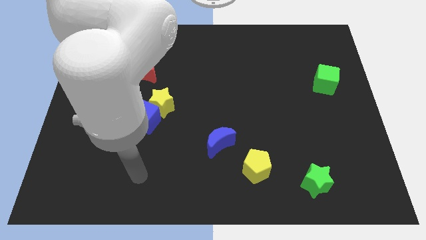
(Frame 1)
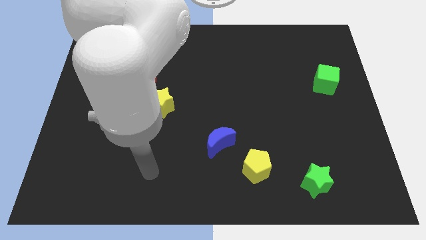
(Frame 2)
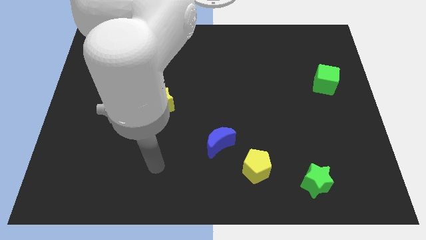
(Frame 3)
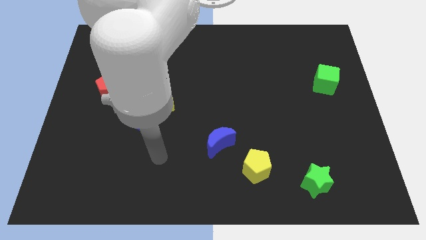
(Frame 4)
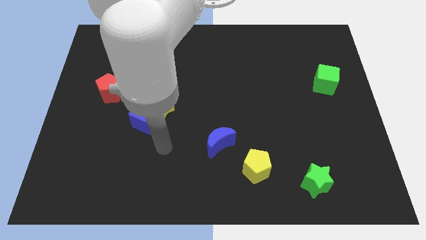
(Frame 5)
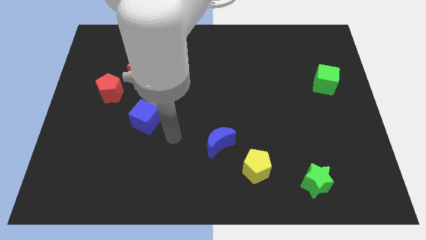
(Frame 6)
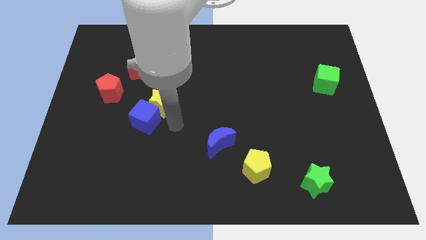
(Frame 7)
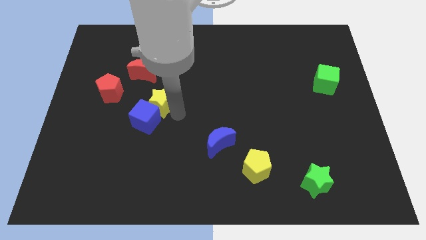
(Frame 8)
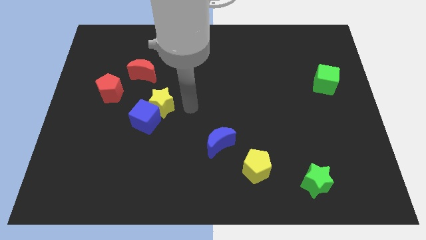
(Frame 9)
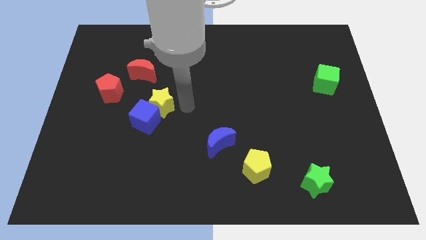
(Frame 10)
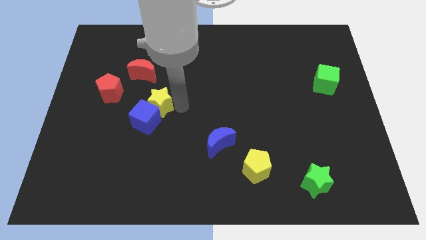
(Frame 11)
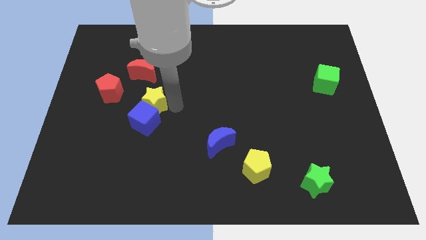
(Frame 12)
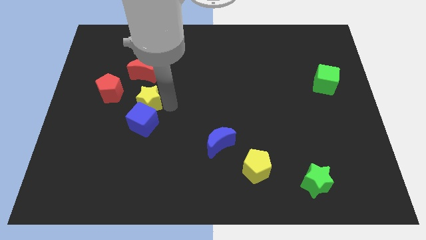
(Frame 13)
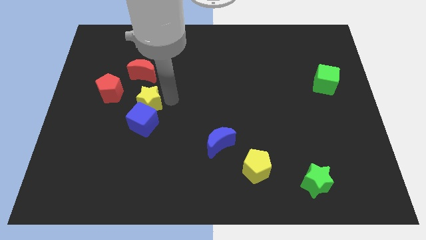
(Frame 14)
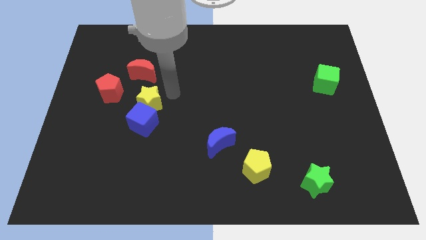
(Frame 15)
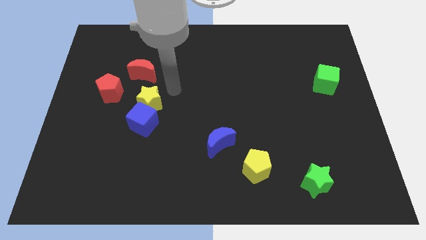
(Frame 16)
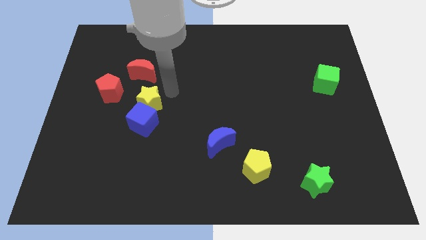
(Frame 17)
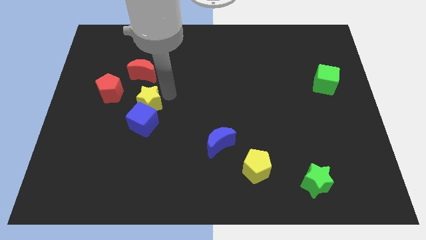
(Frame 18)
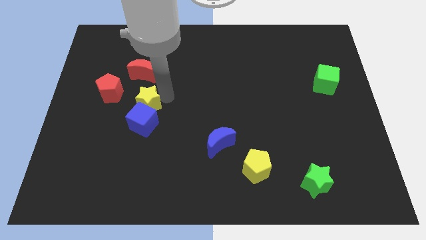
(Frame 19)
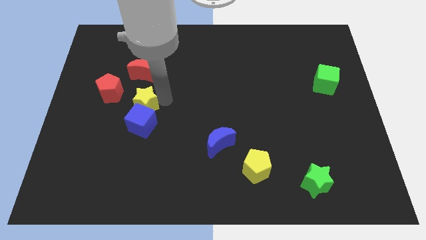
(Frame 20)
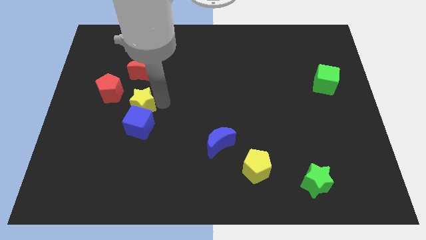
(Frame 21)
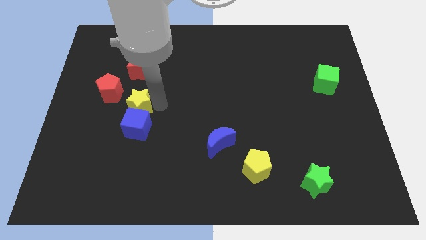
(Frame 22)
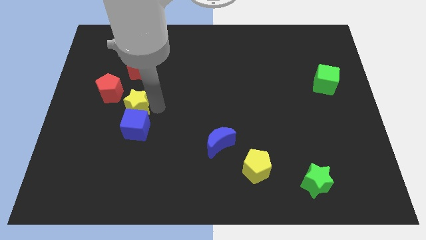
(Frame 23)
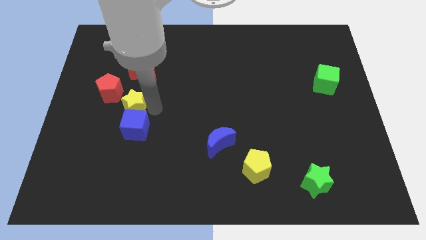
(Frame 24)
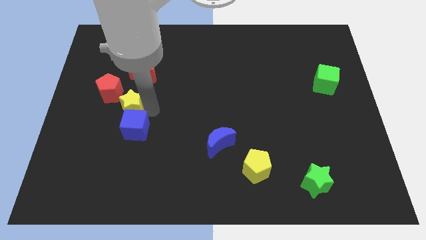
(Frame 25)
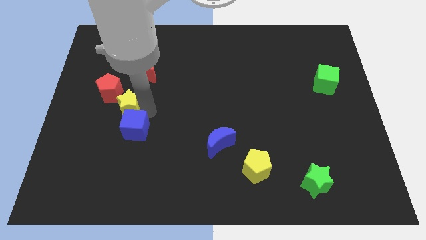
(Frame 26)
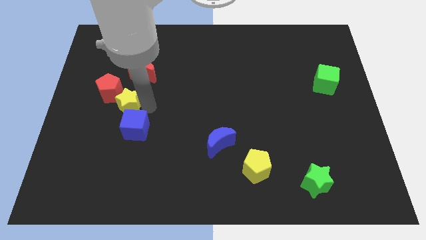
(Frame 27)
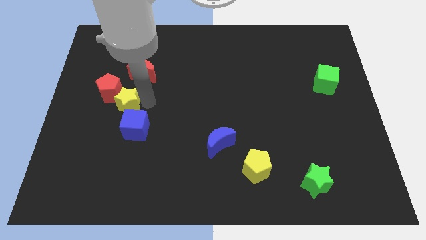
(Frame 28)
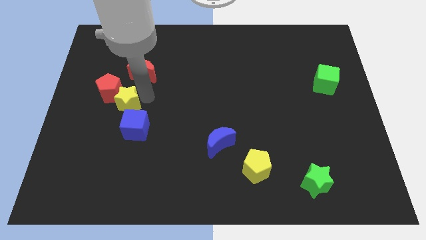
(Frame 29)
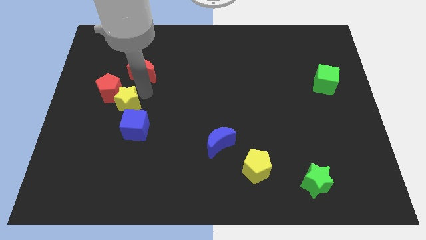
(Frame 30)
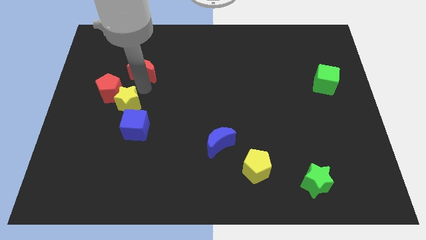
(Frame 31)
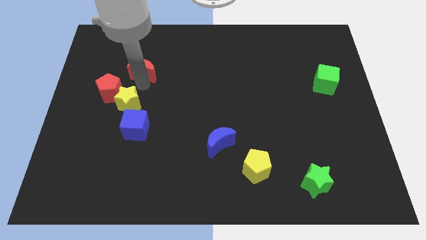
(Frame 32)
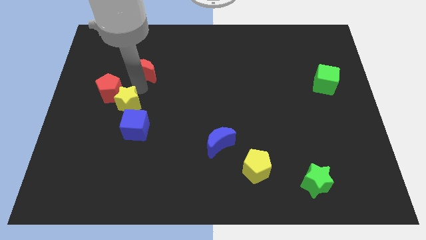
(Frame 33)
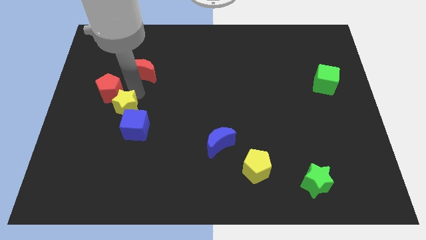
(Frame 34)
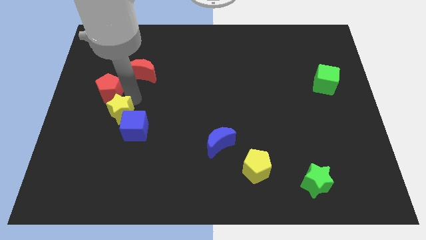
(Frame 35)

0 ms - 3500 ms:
move the yellow star slightly downwards and to the left

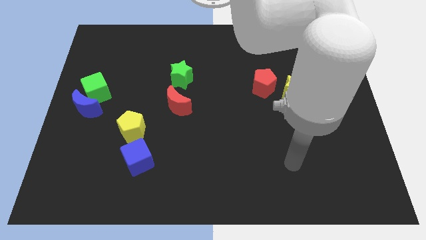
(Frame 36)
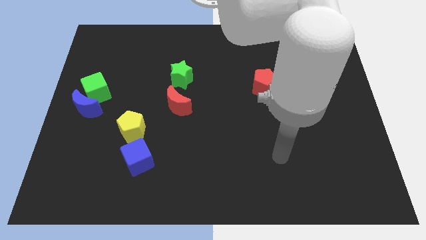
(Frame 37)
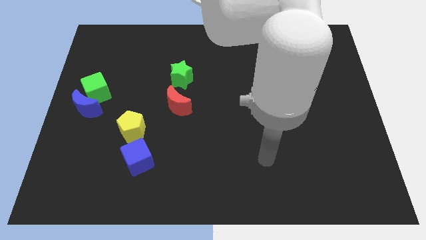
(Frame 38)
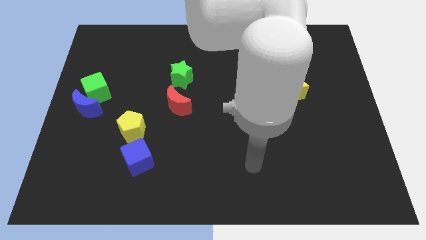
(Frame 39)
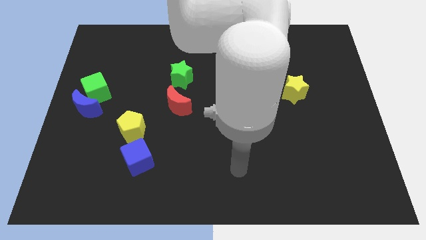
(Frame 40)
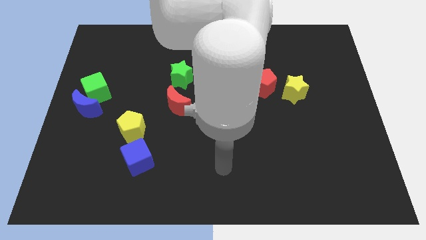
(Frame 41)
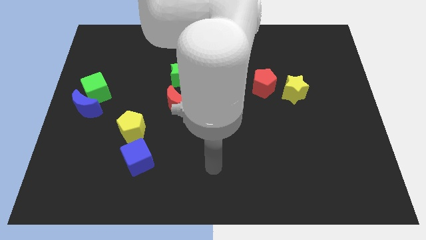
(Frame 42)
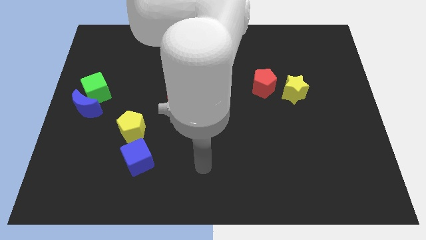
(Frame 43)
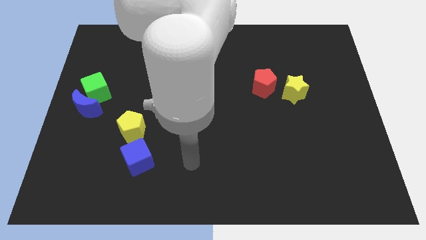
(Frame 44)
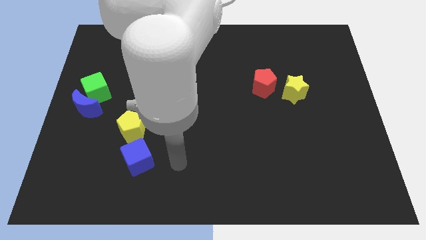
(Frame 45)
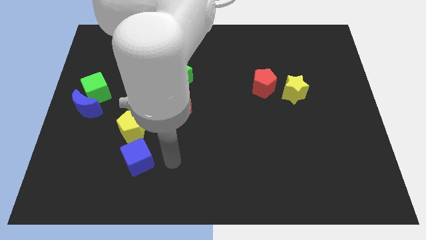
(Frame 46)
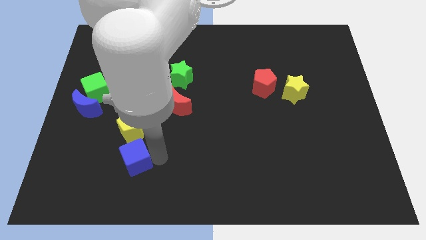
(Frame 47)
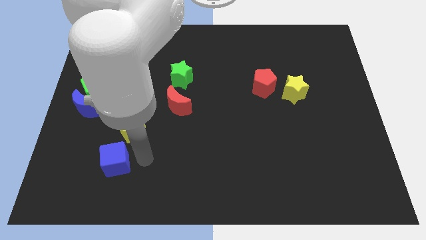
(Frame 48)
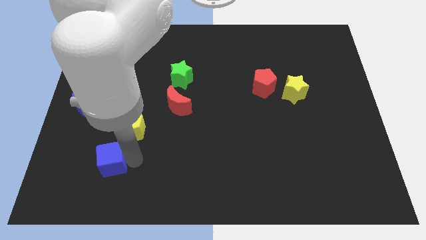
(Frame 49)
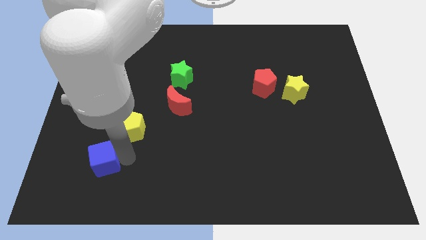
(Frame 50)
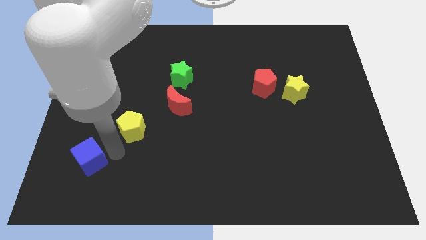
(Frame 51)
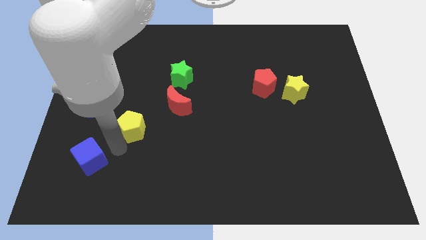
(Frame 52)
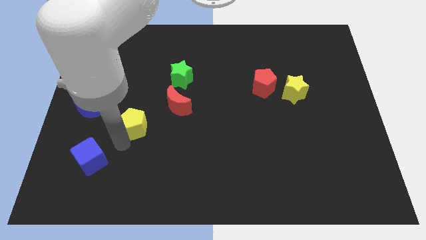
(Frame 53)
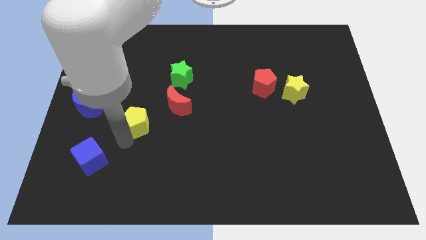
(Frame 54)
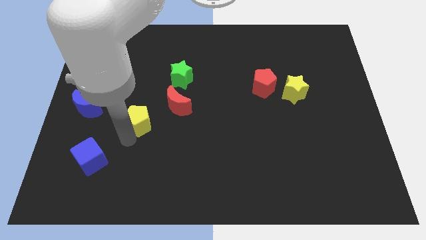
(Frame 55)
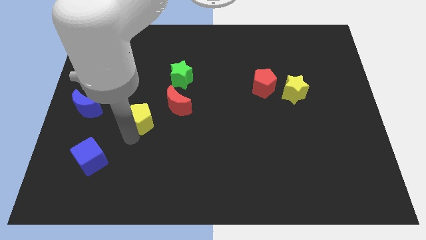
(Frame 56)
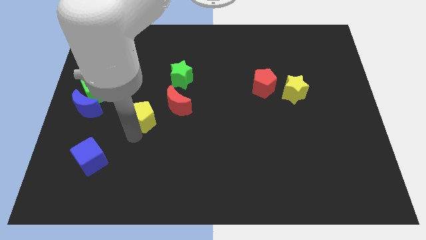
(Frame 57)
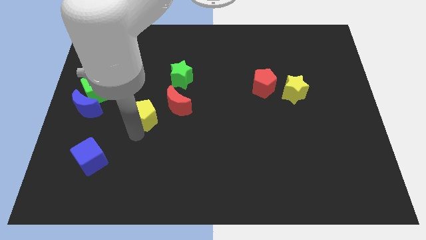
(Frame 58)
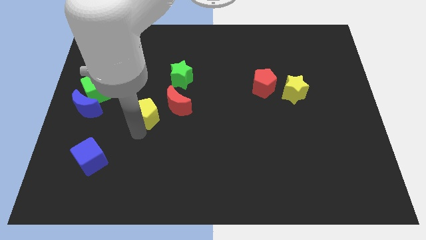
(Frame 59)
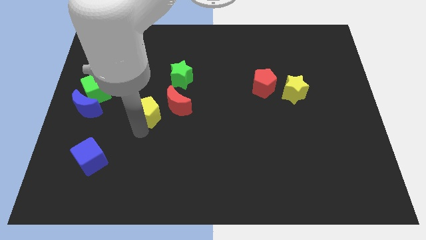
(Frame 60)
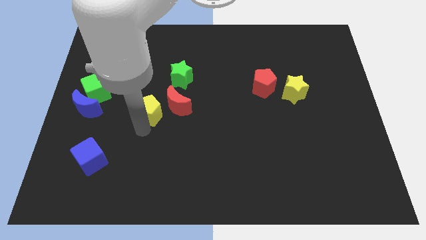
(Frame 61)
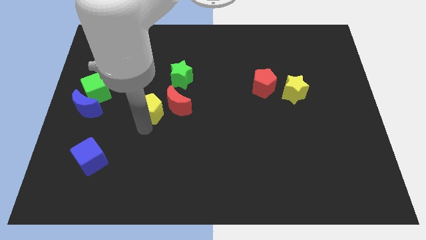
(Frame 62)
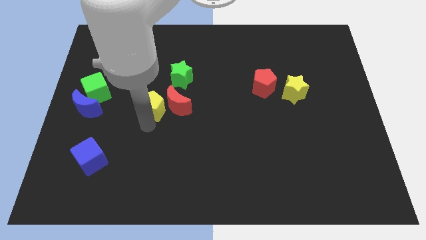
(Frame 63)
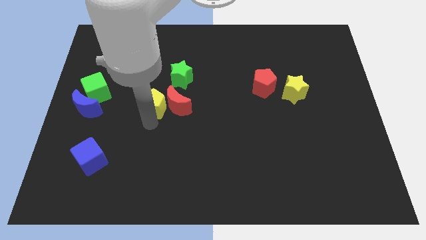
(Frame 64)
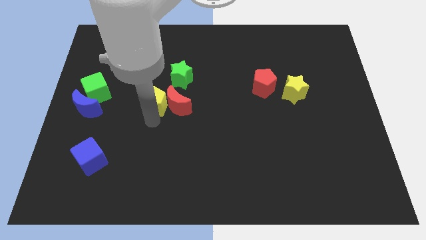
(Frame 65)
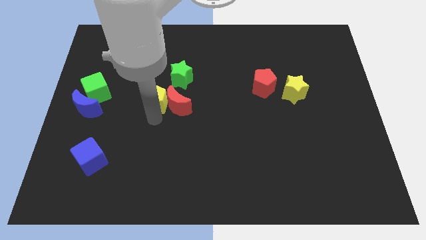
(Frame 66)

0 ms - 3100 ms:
push the yellow pentagon a bit upwards

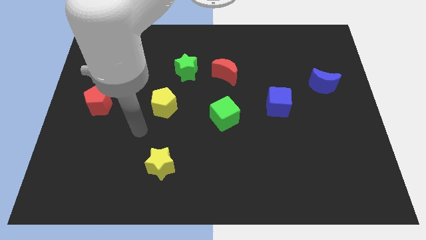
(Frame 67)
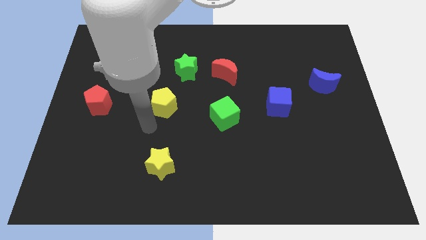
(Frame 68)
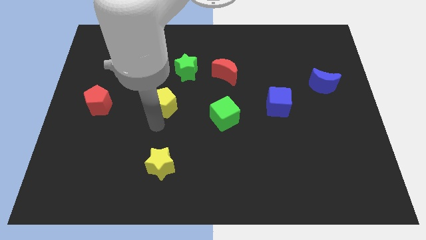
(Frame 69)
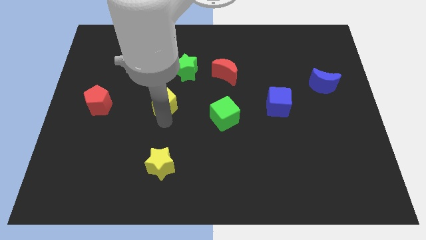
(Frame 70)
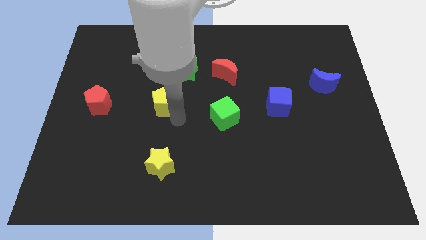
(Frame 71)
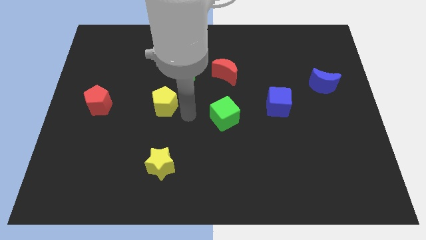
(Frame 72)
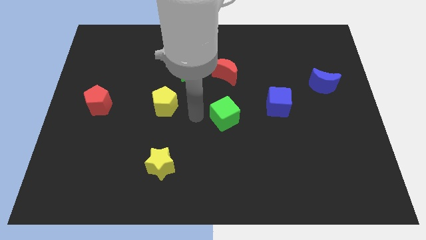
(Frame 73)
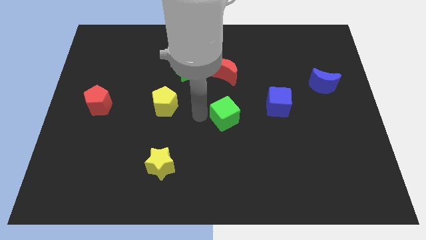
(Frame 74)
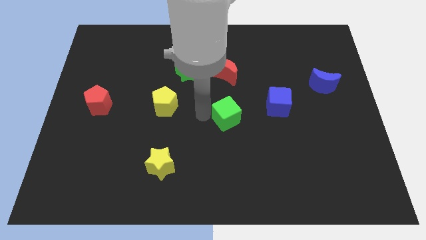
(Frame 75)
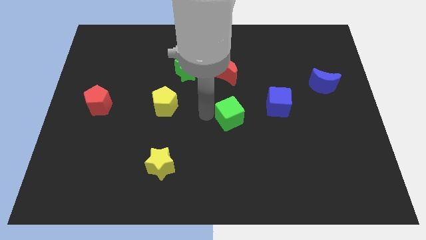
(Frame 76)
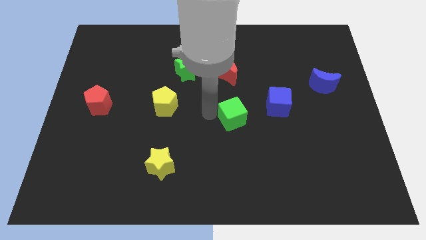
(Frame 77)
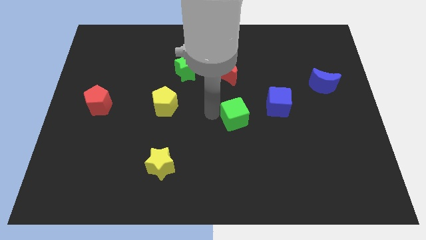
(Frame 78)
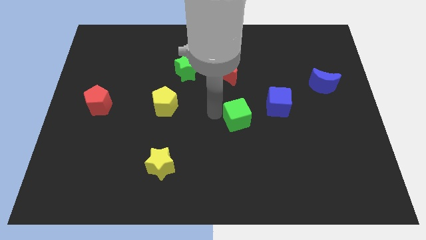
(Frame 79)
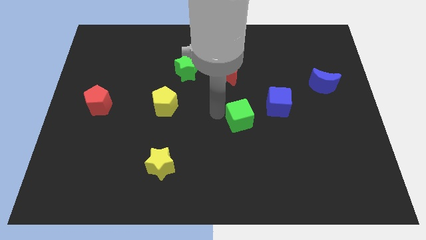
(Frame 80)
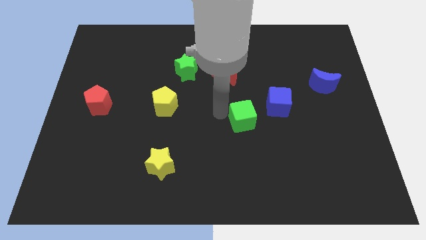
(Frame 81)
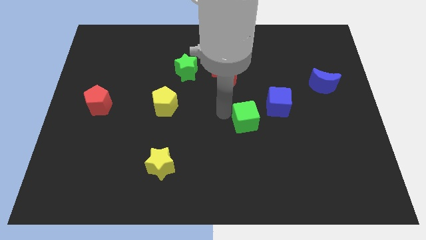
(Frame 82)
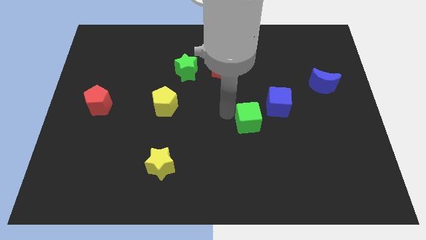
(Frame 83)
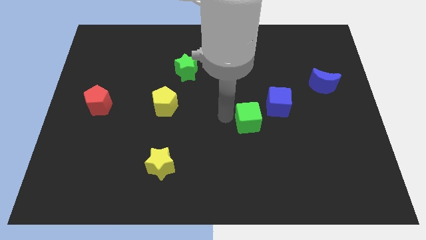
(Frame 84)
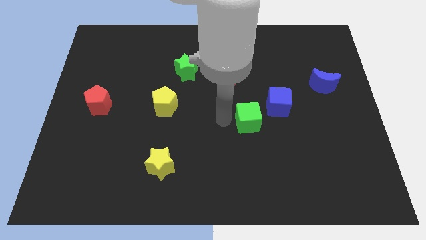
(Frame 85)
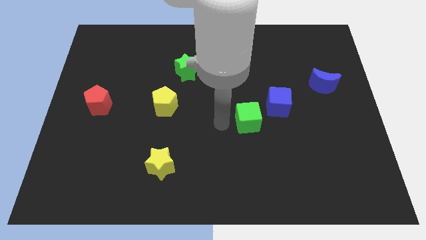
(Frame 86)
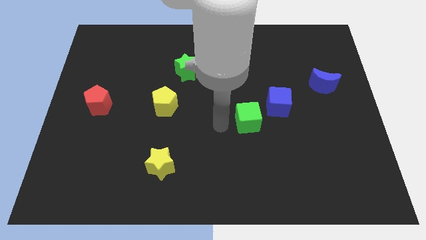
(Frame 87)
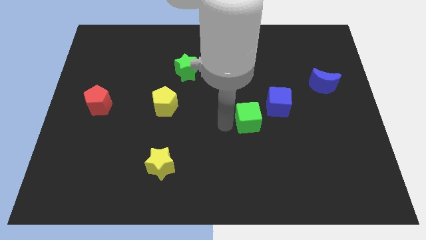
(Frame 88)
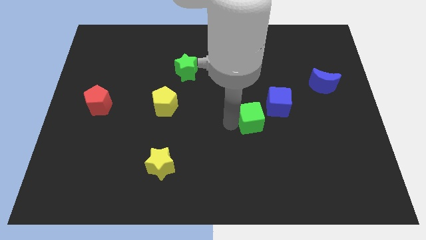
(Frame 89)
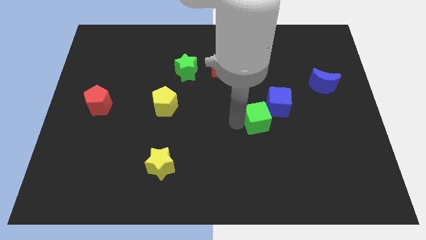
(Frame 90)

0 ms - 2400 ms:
move the green cube right a little bit
